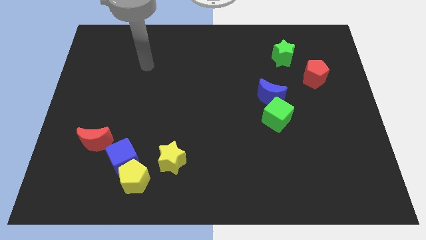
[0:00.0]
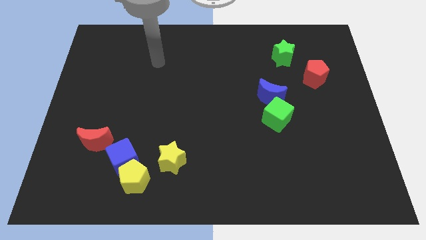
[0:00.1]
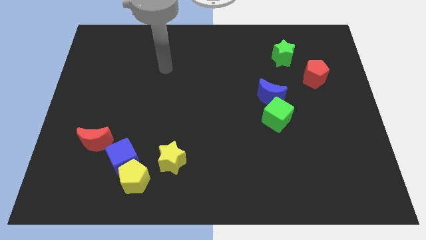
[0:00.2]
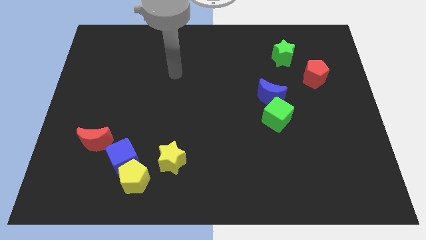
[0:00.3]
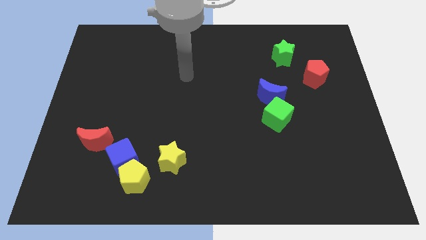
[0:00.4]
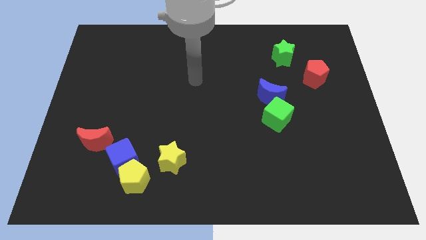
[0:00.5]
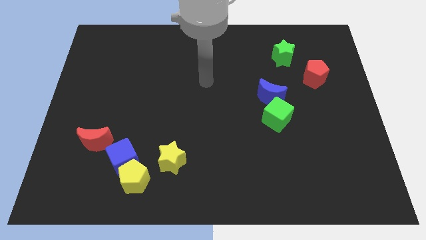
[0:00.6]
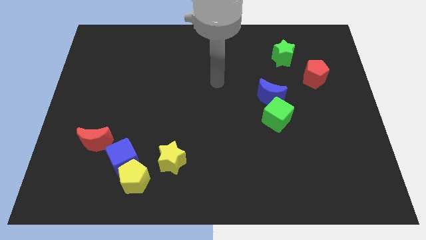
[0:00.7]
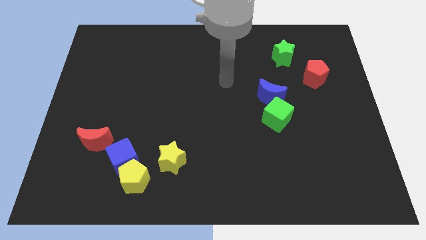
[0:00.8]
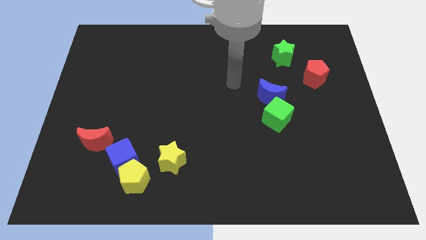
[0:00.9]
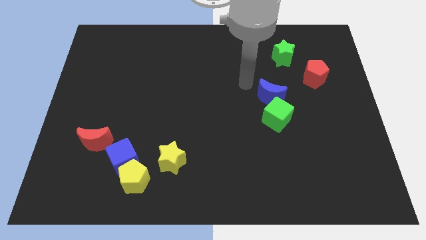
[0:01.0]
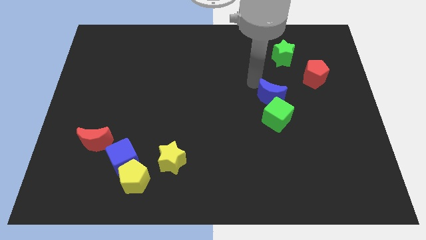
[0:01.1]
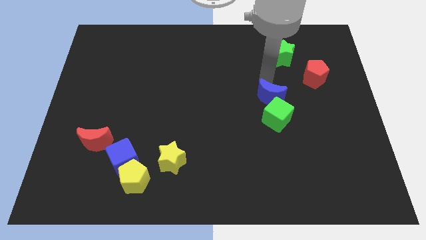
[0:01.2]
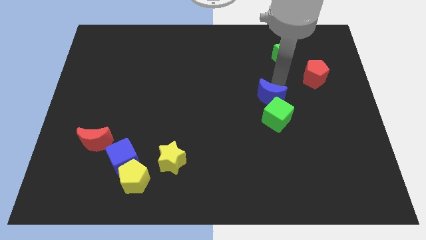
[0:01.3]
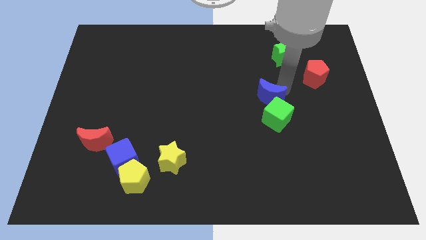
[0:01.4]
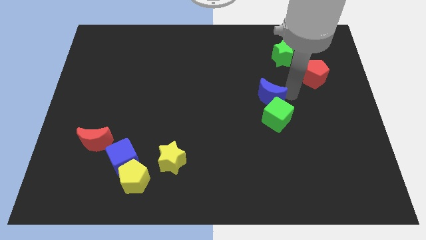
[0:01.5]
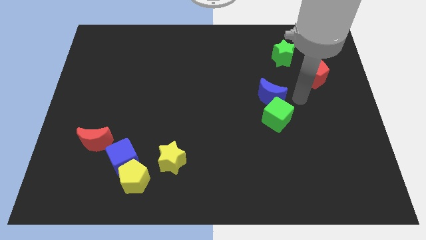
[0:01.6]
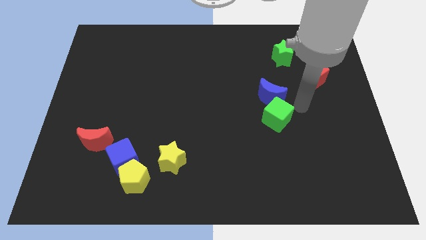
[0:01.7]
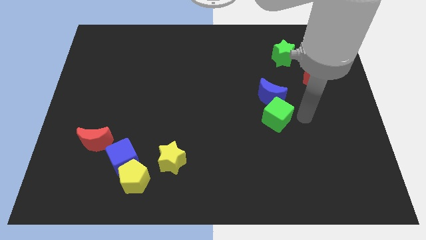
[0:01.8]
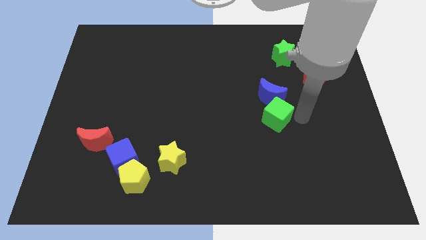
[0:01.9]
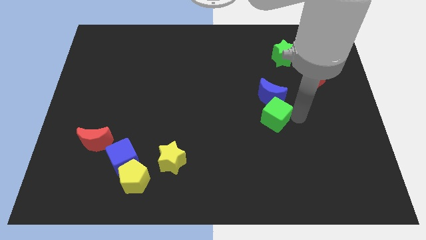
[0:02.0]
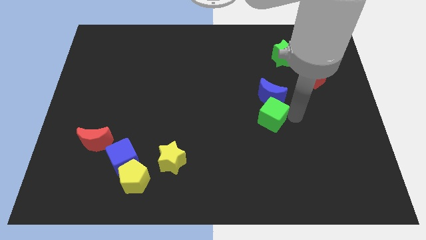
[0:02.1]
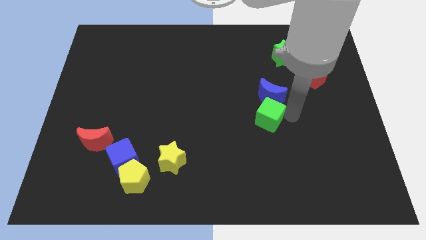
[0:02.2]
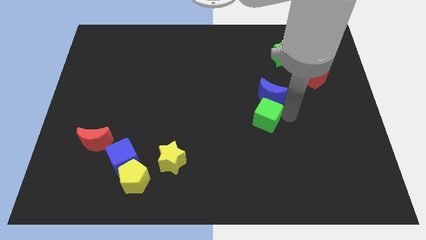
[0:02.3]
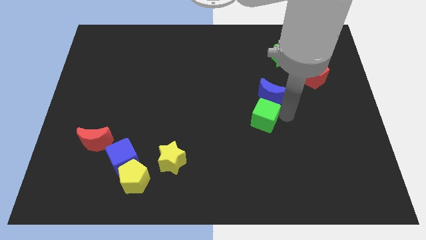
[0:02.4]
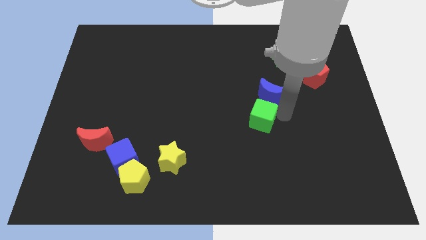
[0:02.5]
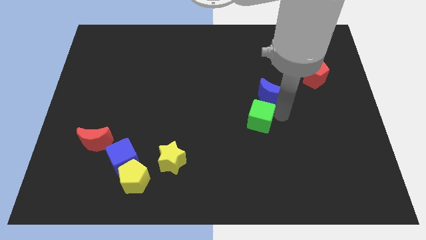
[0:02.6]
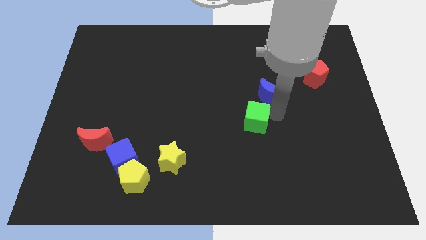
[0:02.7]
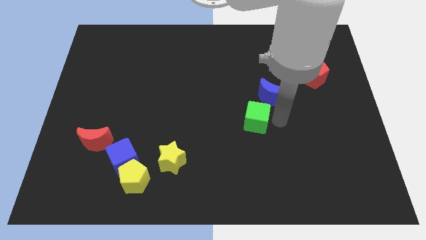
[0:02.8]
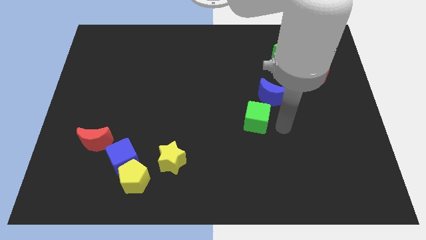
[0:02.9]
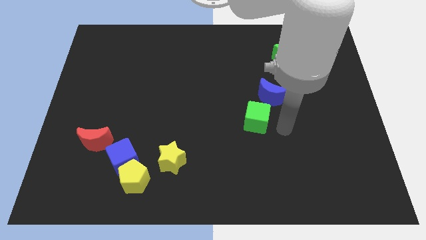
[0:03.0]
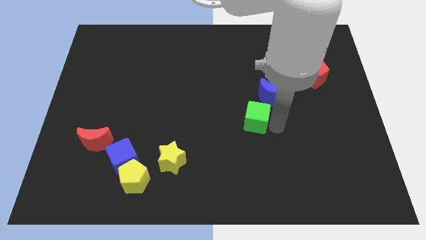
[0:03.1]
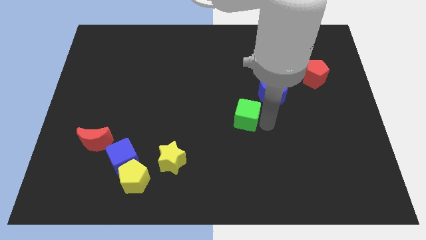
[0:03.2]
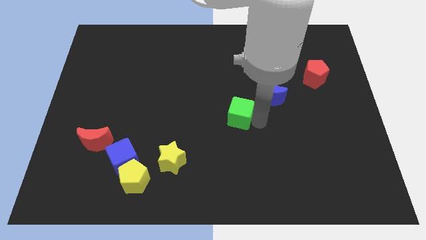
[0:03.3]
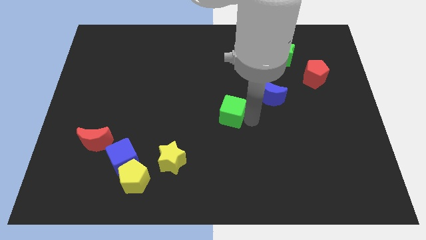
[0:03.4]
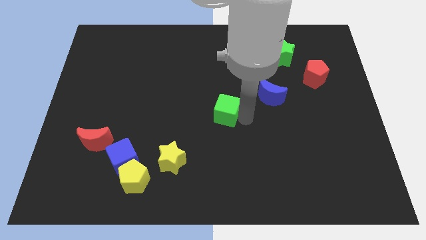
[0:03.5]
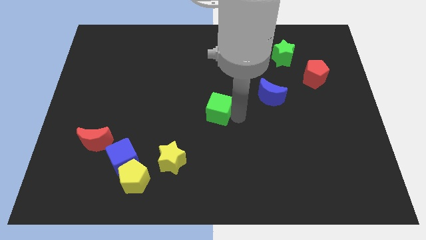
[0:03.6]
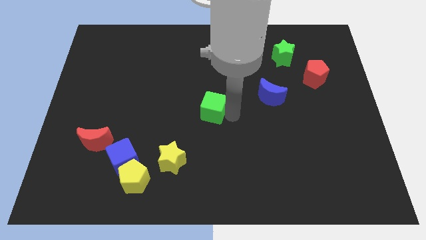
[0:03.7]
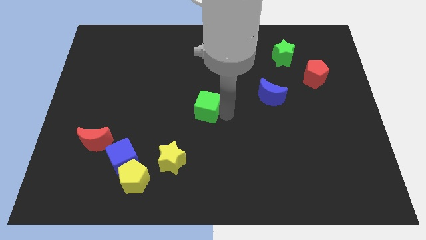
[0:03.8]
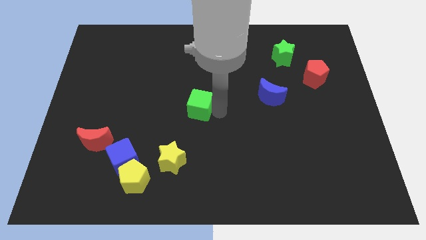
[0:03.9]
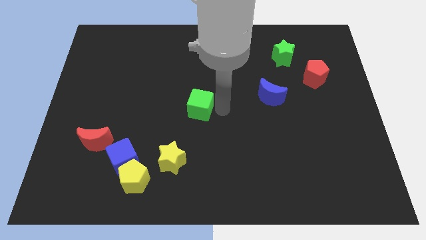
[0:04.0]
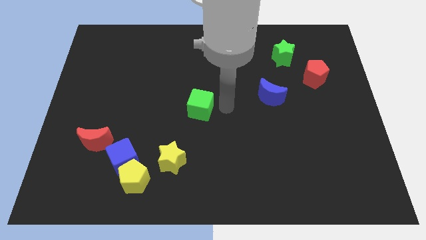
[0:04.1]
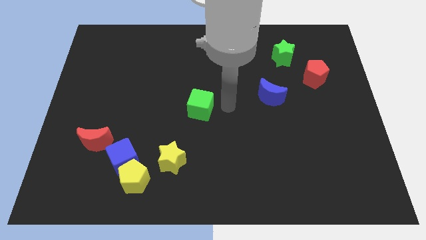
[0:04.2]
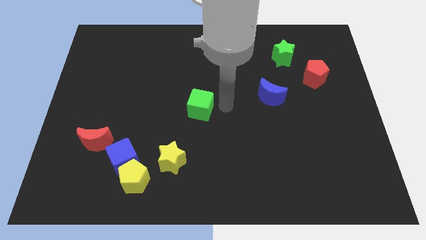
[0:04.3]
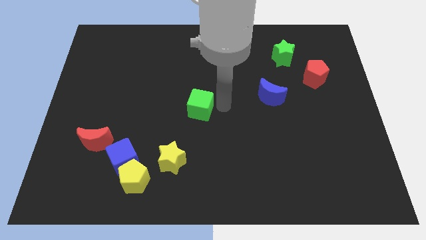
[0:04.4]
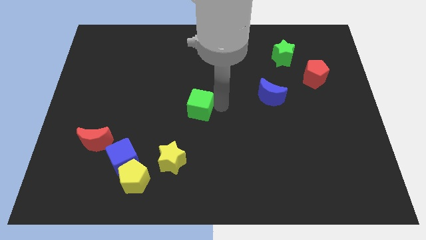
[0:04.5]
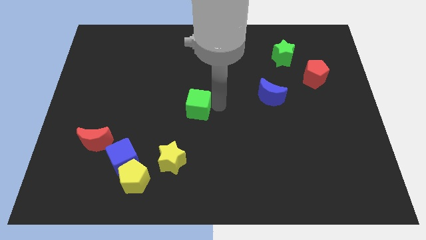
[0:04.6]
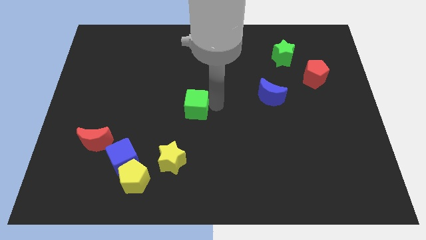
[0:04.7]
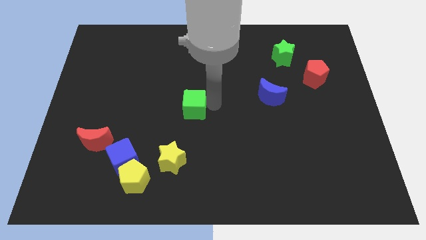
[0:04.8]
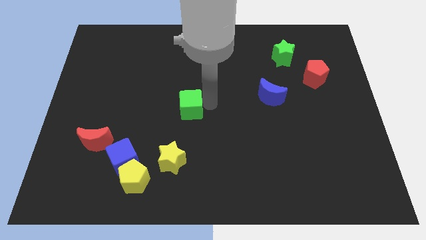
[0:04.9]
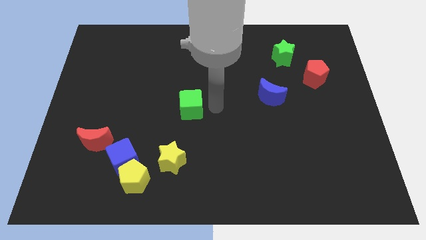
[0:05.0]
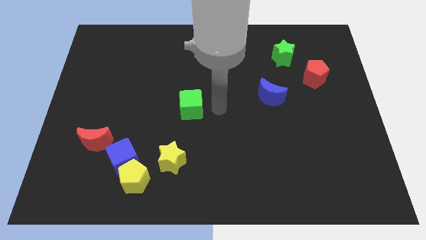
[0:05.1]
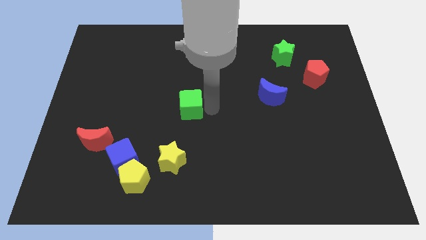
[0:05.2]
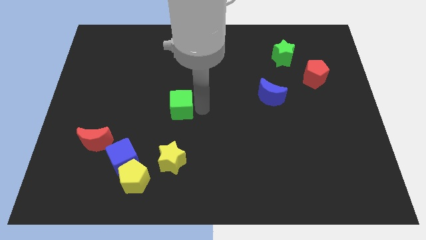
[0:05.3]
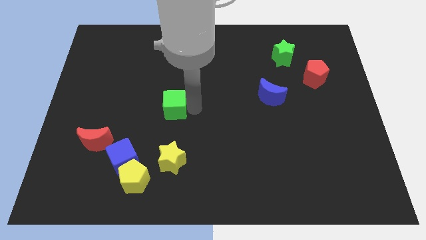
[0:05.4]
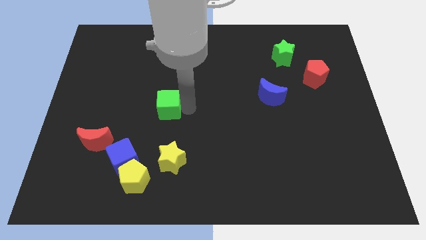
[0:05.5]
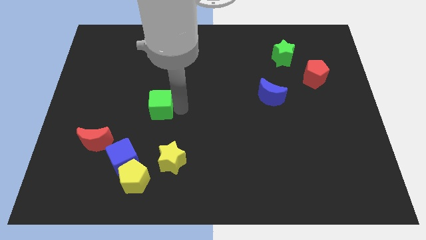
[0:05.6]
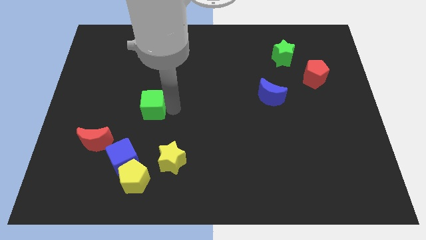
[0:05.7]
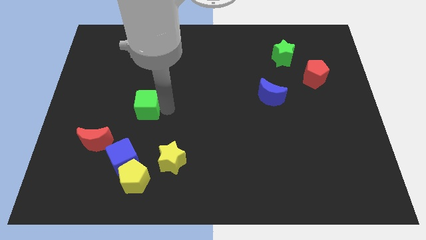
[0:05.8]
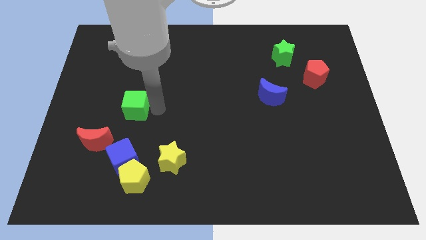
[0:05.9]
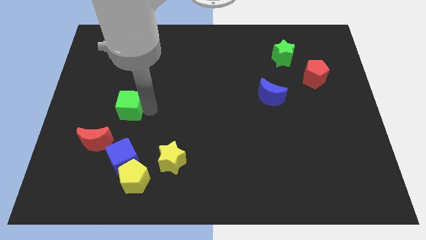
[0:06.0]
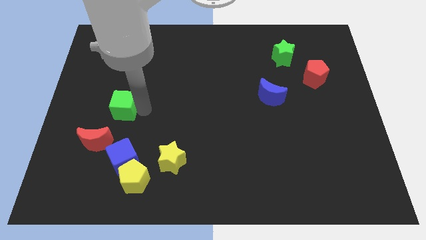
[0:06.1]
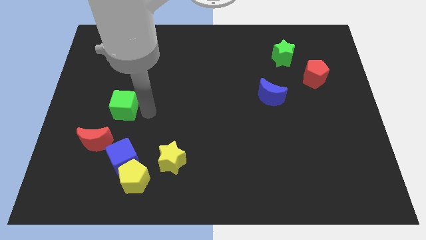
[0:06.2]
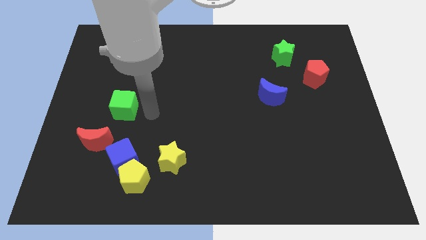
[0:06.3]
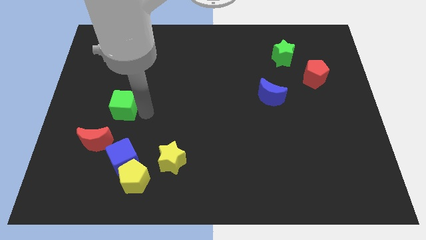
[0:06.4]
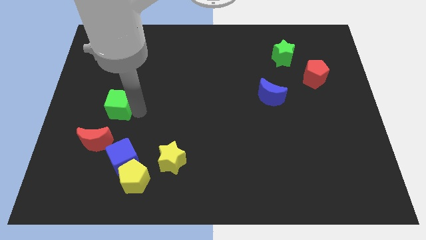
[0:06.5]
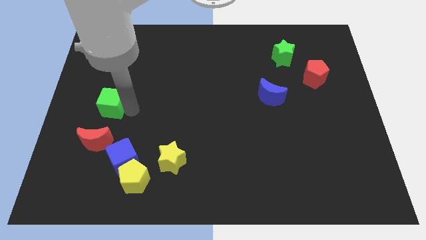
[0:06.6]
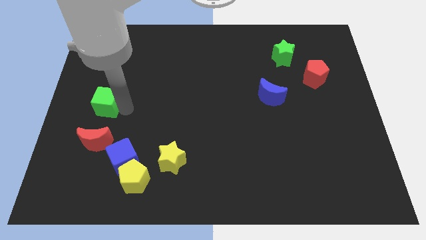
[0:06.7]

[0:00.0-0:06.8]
put the green cube to the center left
